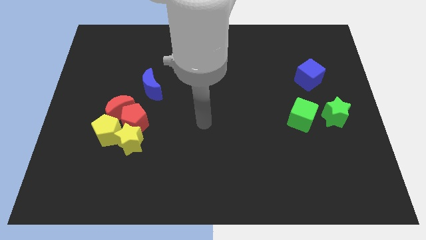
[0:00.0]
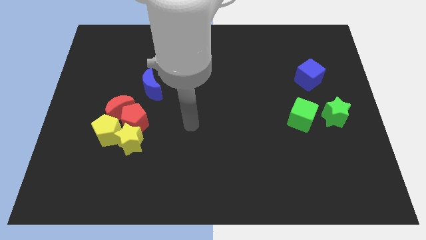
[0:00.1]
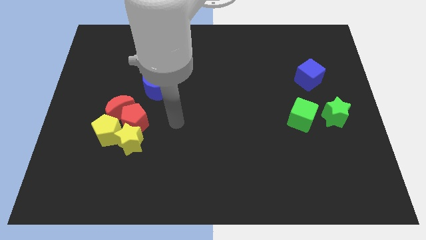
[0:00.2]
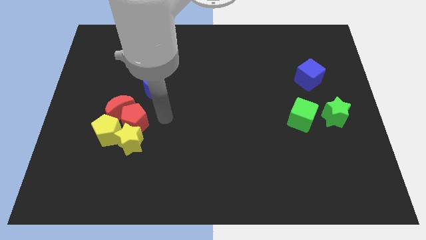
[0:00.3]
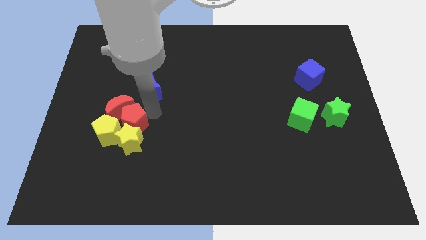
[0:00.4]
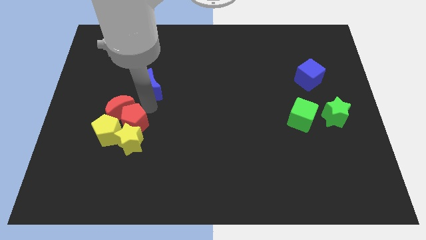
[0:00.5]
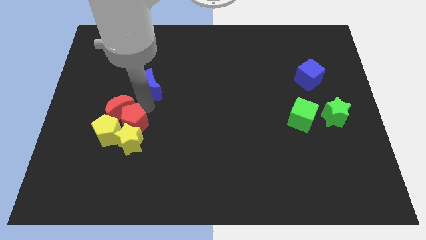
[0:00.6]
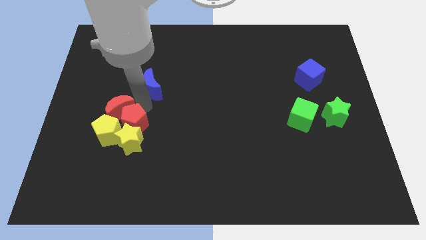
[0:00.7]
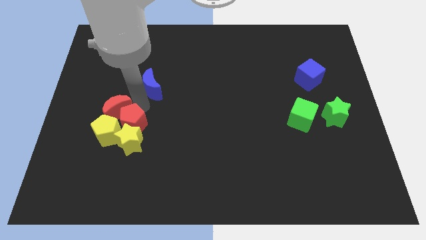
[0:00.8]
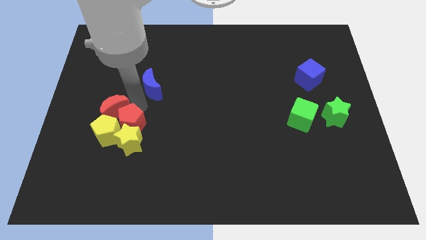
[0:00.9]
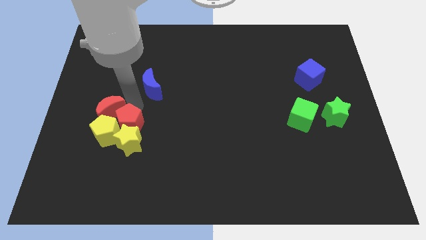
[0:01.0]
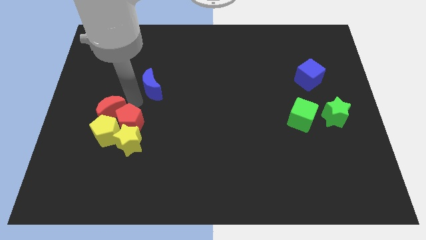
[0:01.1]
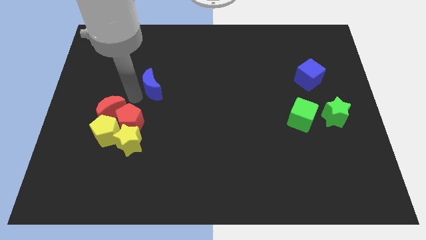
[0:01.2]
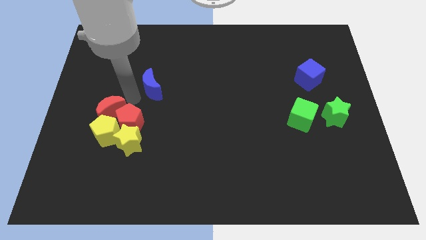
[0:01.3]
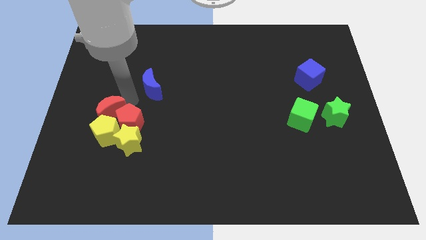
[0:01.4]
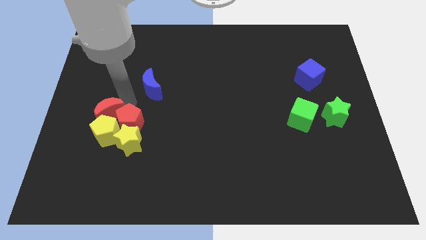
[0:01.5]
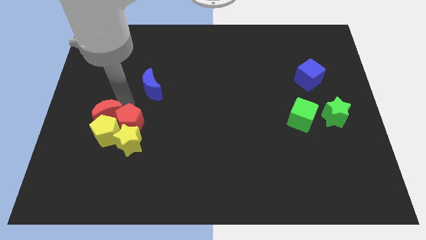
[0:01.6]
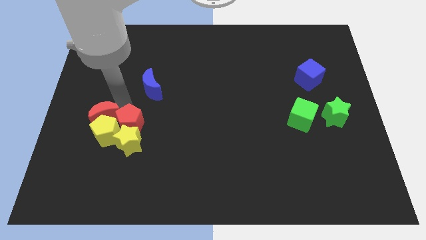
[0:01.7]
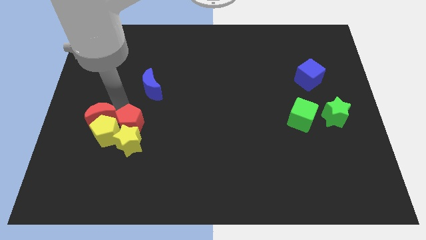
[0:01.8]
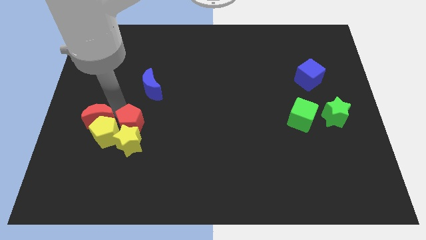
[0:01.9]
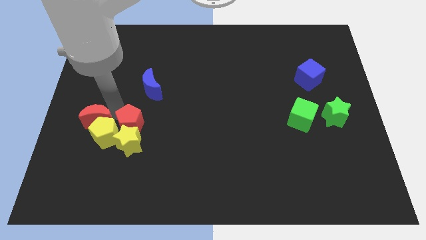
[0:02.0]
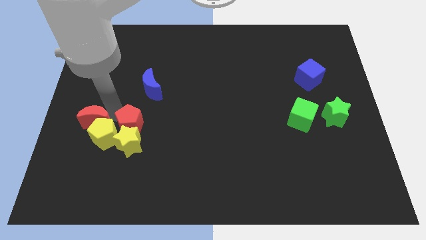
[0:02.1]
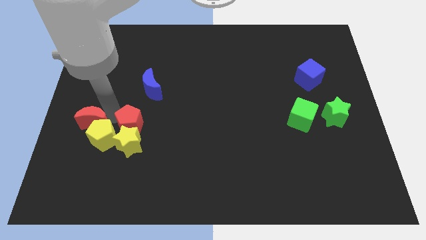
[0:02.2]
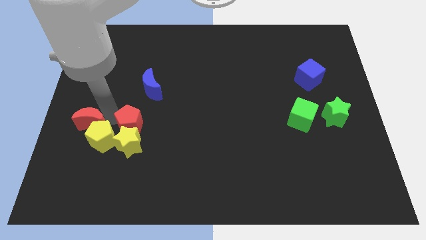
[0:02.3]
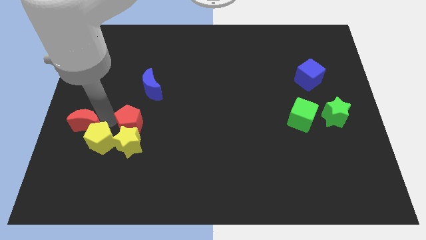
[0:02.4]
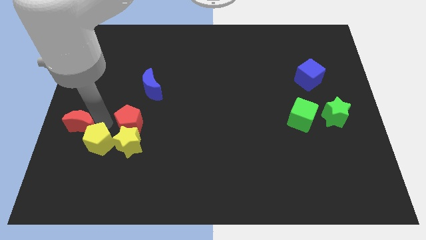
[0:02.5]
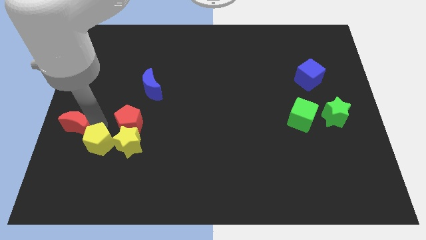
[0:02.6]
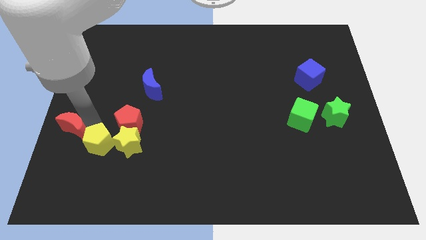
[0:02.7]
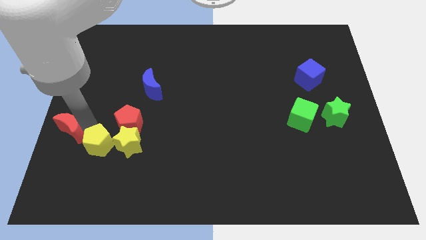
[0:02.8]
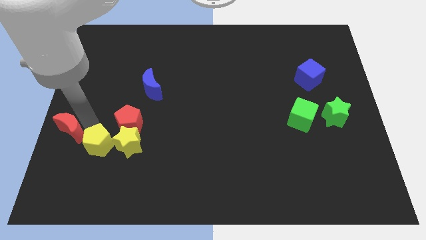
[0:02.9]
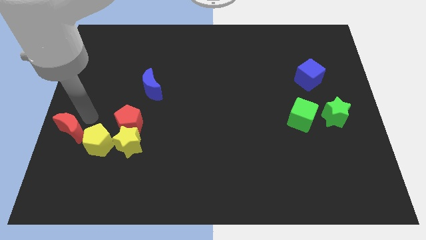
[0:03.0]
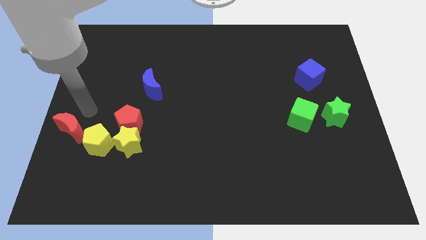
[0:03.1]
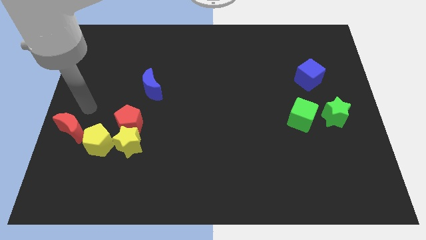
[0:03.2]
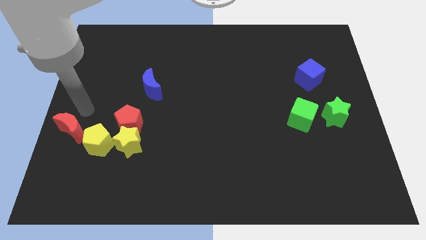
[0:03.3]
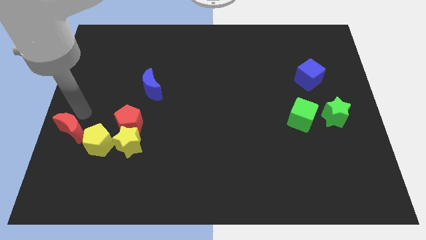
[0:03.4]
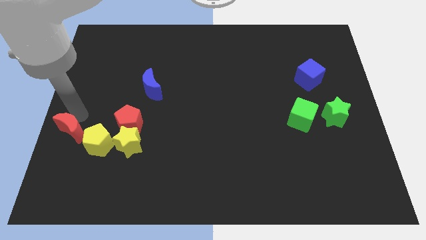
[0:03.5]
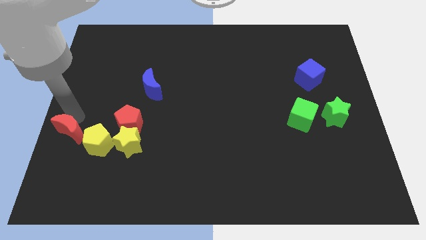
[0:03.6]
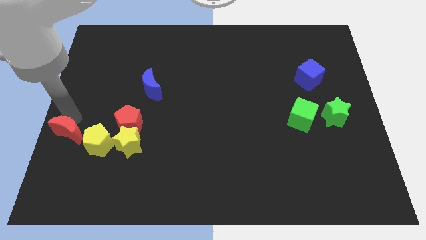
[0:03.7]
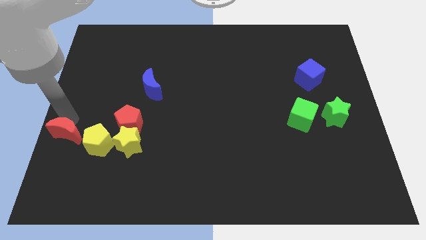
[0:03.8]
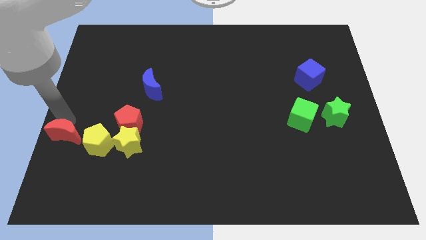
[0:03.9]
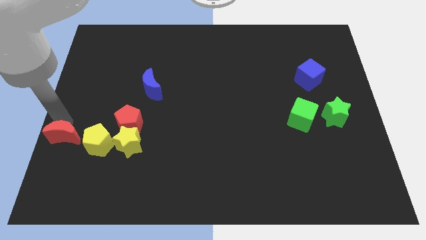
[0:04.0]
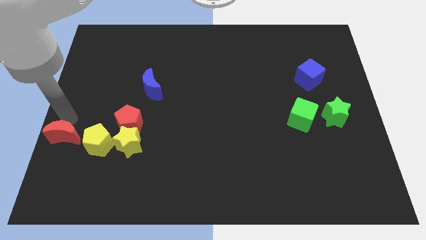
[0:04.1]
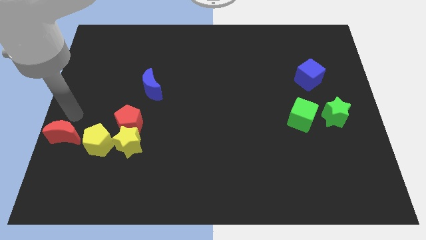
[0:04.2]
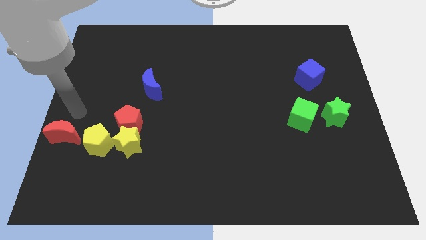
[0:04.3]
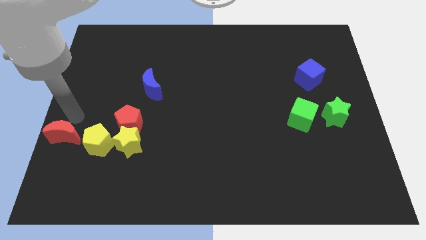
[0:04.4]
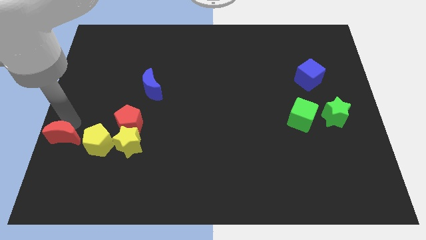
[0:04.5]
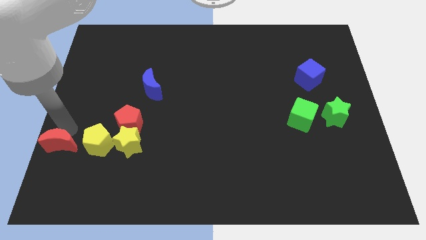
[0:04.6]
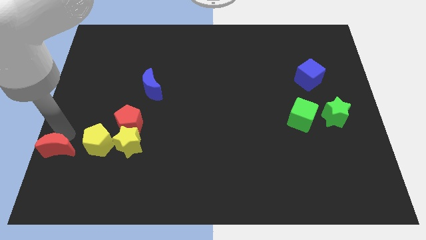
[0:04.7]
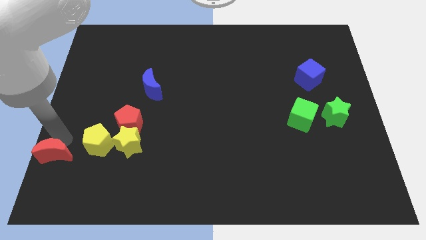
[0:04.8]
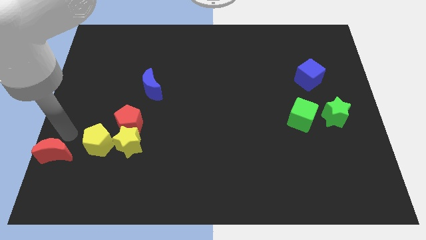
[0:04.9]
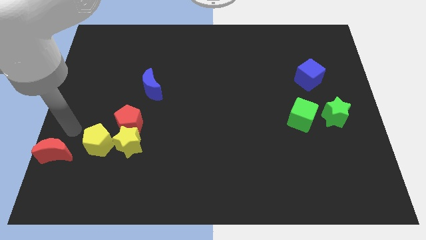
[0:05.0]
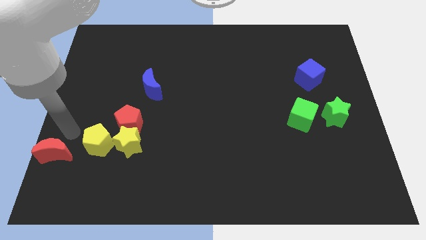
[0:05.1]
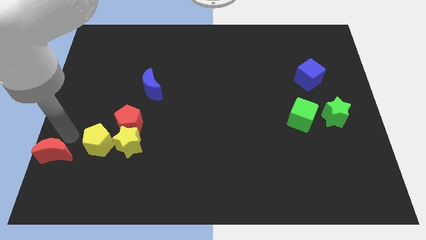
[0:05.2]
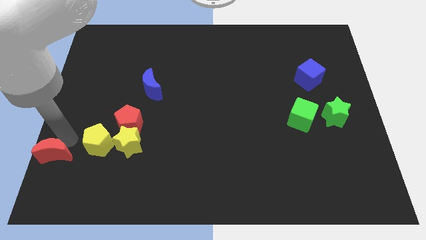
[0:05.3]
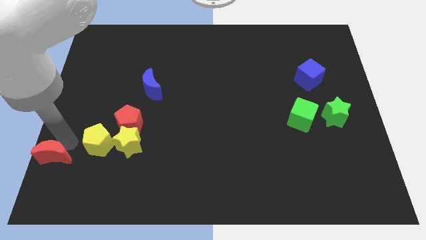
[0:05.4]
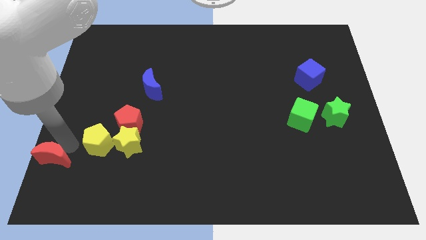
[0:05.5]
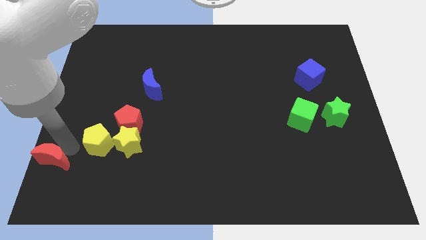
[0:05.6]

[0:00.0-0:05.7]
slide the red moon to the bottom left of the board

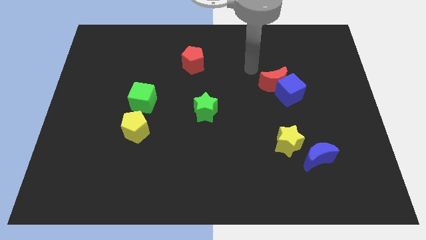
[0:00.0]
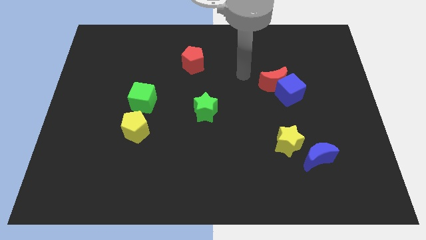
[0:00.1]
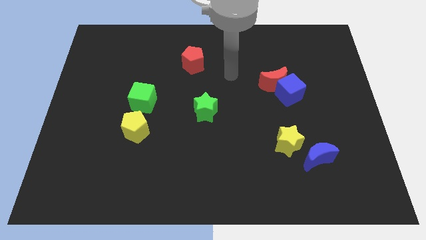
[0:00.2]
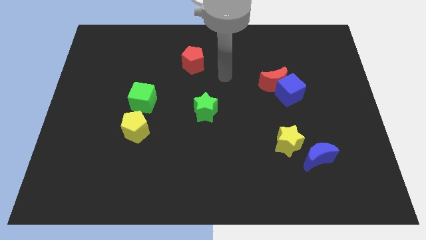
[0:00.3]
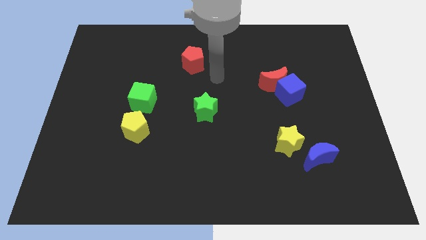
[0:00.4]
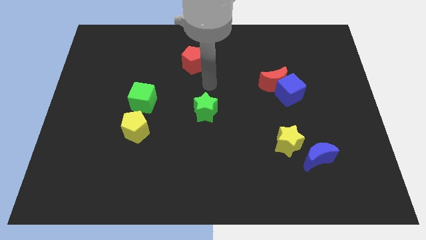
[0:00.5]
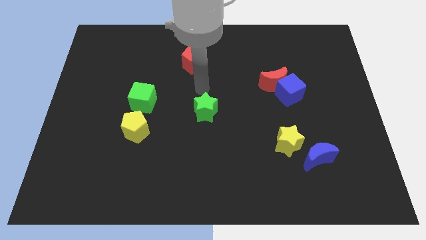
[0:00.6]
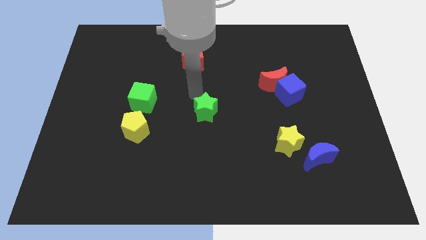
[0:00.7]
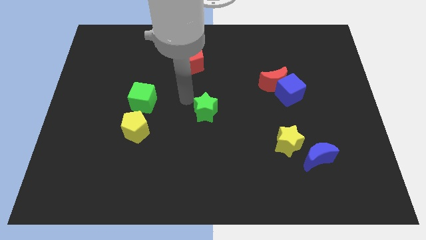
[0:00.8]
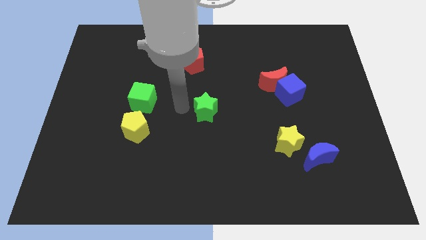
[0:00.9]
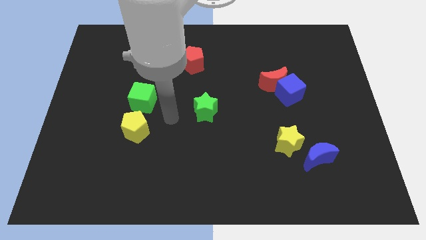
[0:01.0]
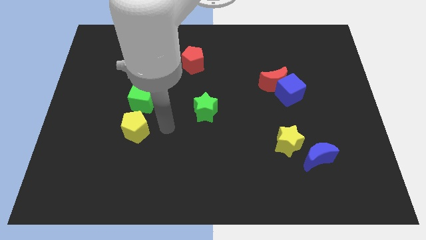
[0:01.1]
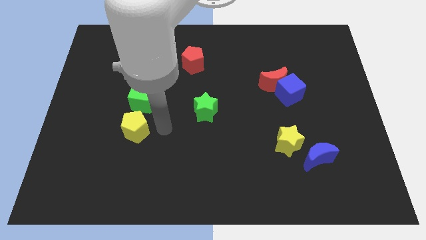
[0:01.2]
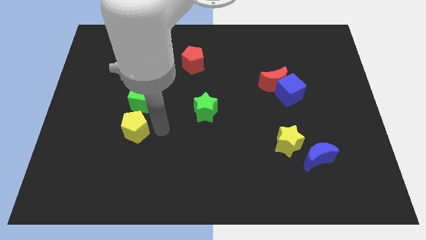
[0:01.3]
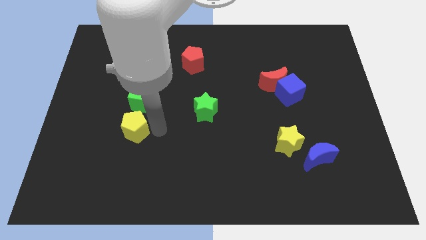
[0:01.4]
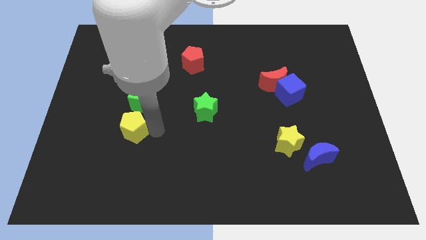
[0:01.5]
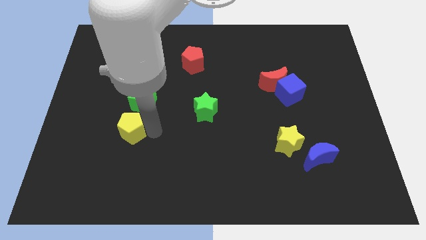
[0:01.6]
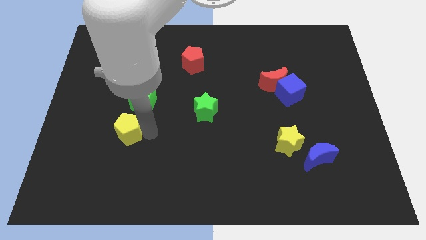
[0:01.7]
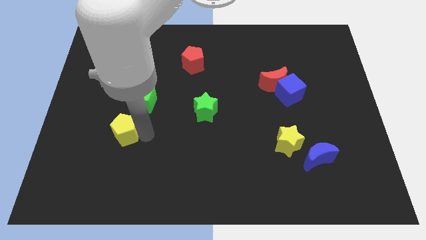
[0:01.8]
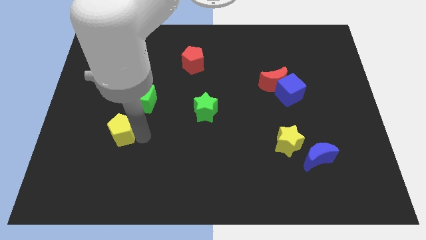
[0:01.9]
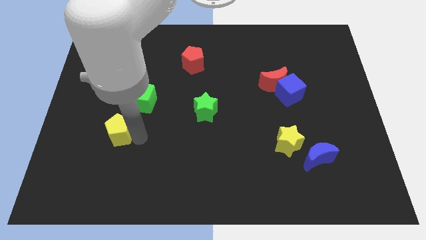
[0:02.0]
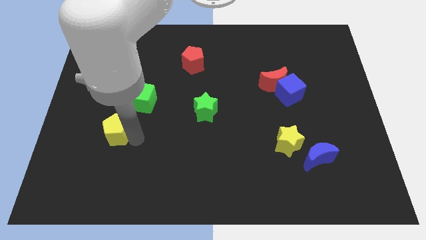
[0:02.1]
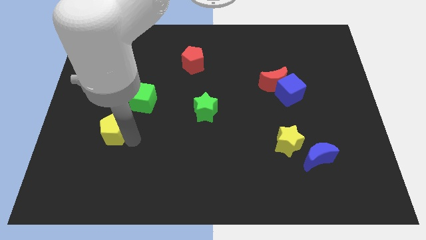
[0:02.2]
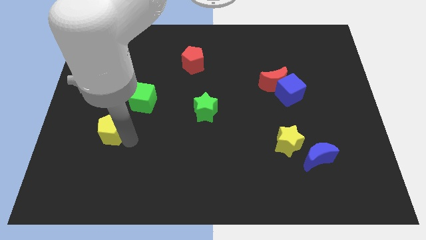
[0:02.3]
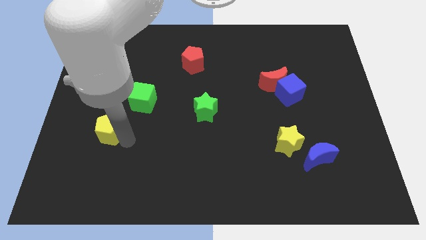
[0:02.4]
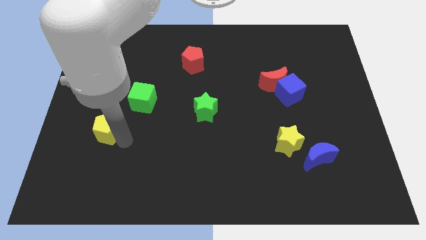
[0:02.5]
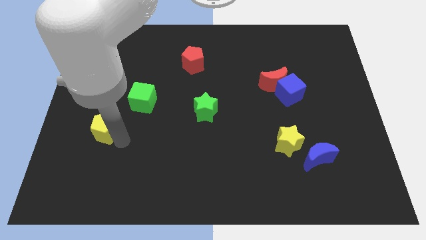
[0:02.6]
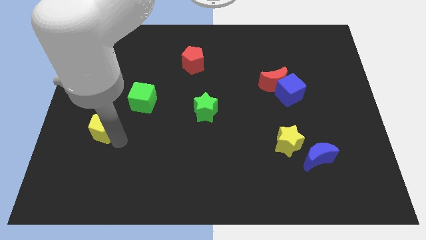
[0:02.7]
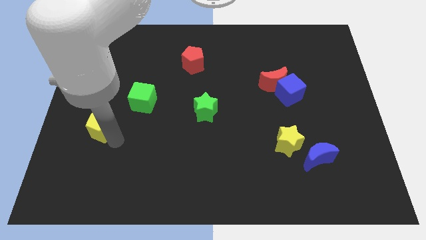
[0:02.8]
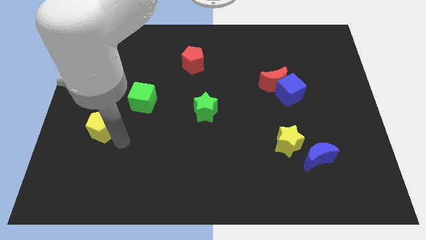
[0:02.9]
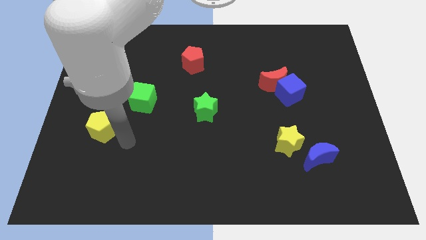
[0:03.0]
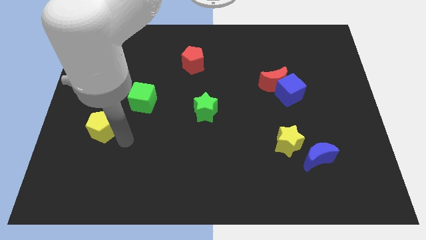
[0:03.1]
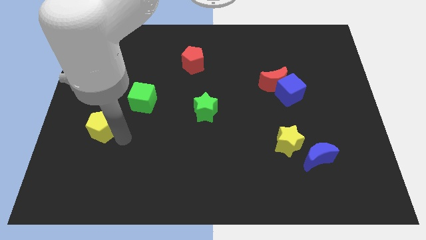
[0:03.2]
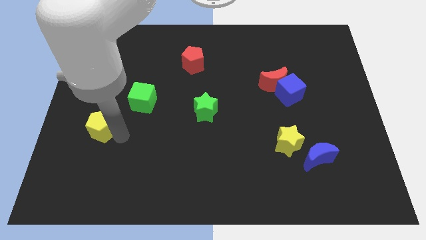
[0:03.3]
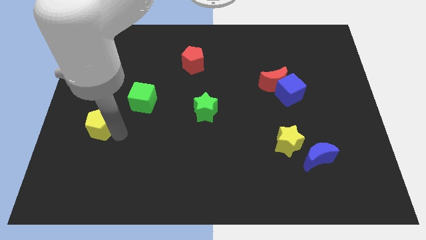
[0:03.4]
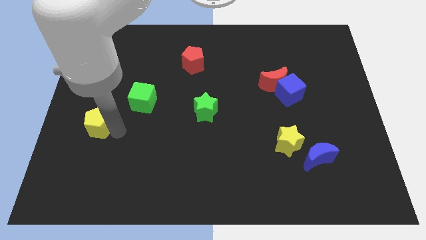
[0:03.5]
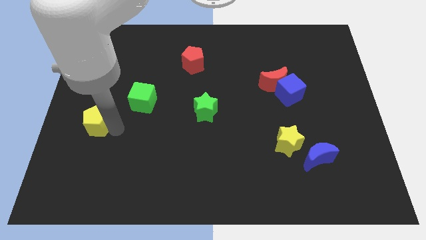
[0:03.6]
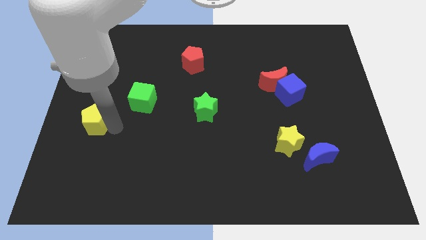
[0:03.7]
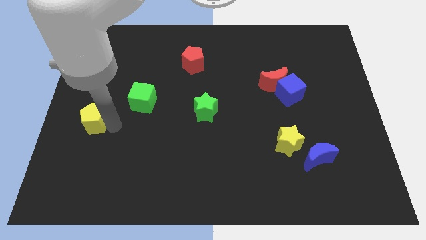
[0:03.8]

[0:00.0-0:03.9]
move the yellow pentagon to the center left
